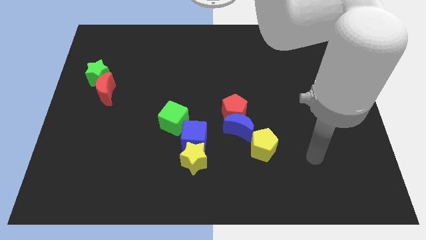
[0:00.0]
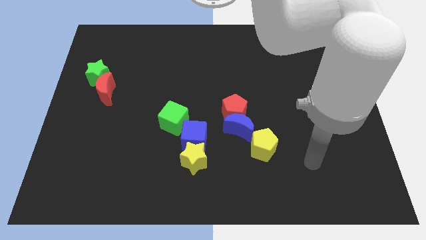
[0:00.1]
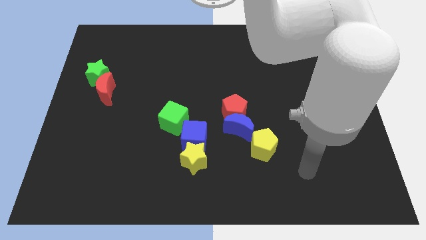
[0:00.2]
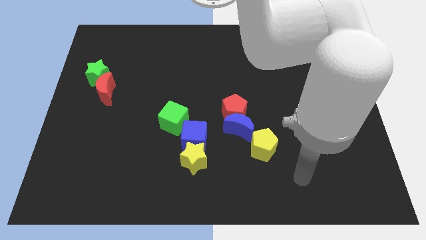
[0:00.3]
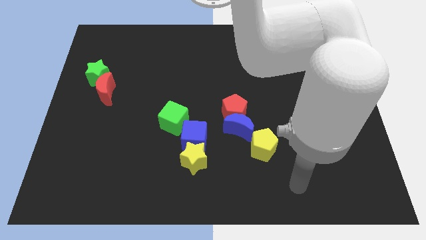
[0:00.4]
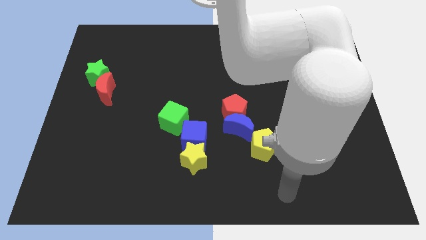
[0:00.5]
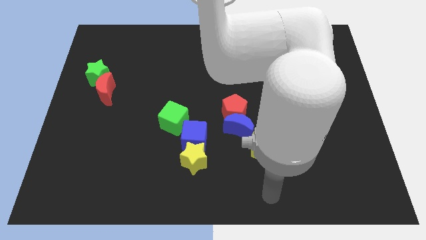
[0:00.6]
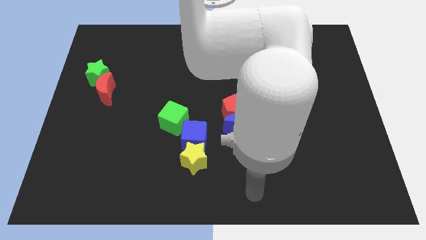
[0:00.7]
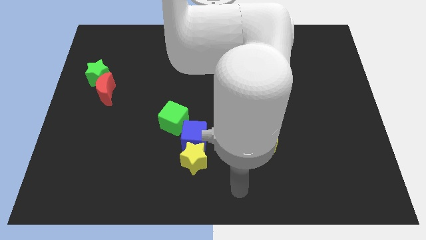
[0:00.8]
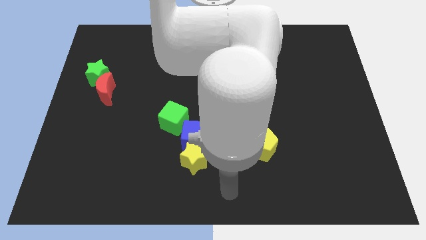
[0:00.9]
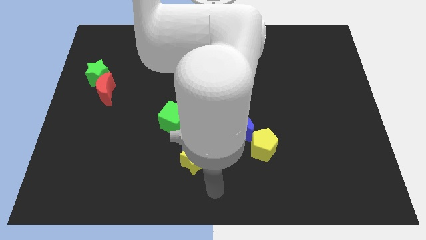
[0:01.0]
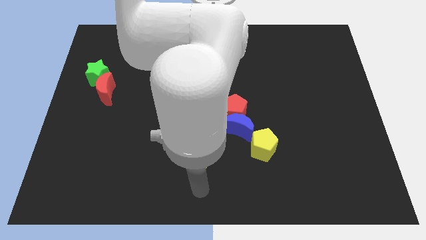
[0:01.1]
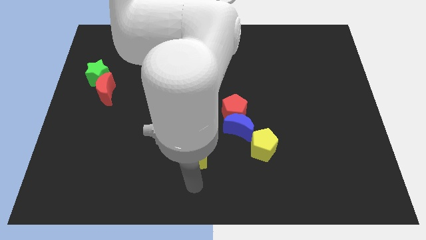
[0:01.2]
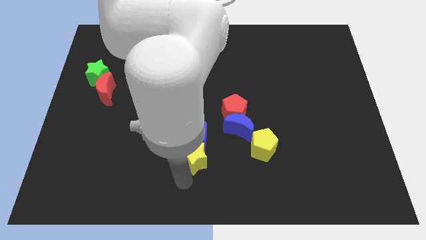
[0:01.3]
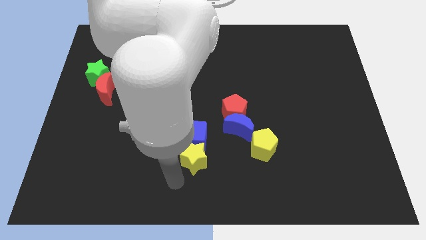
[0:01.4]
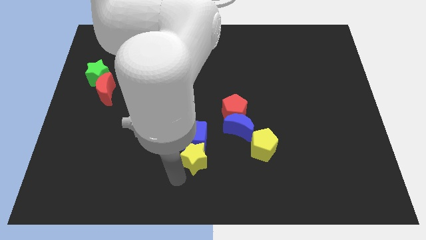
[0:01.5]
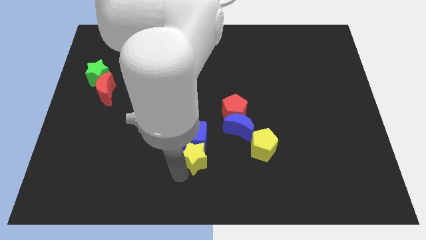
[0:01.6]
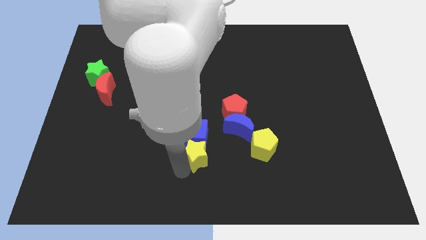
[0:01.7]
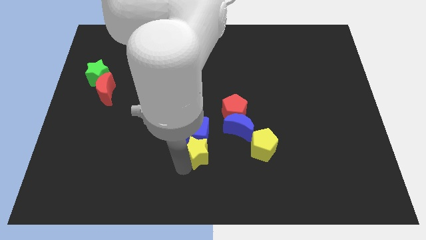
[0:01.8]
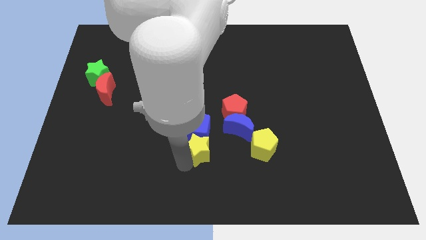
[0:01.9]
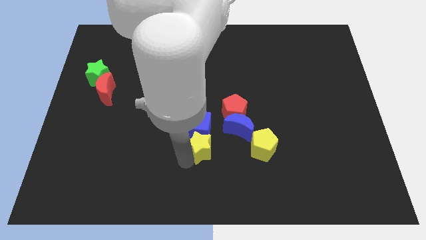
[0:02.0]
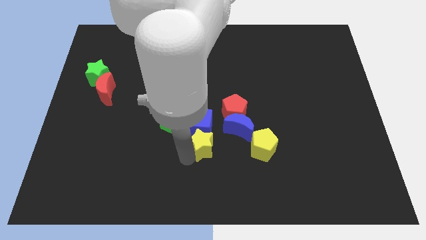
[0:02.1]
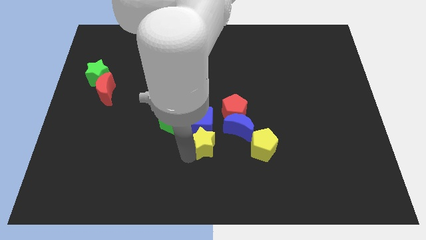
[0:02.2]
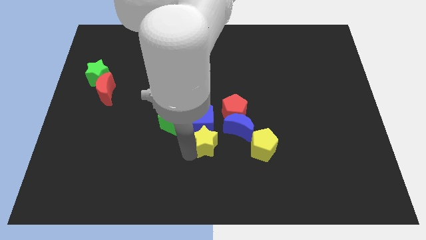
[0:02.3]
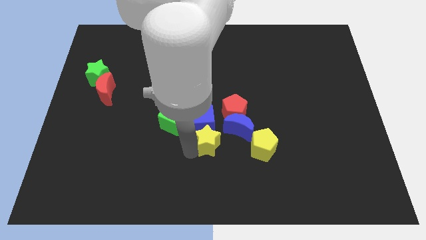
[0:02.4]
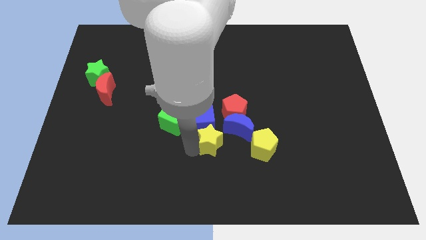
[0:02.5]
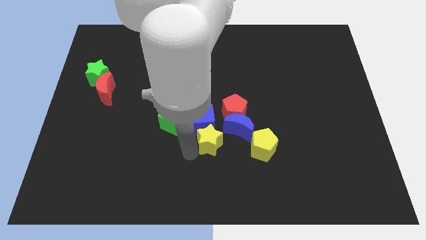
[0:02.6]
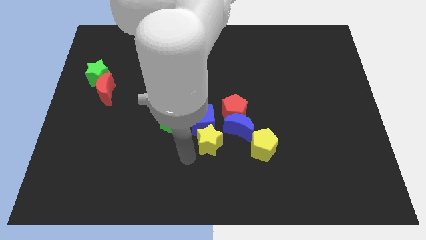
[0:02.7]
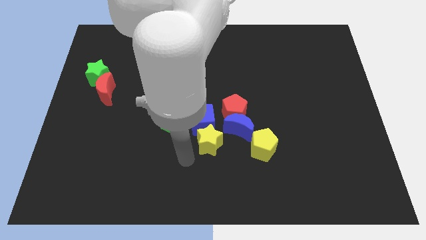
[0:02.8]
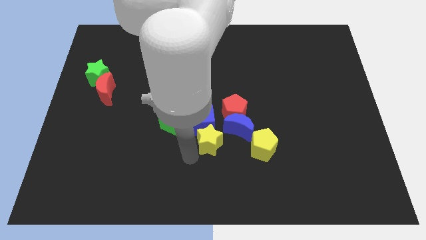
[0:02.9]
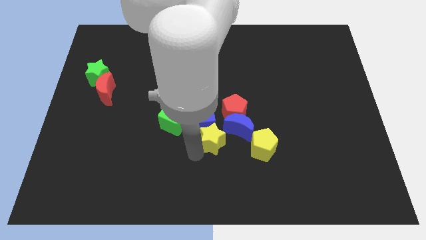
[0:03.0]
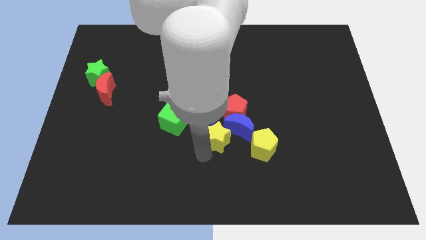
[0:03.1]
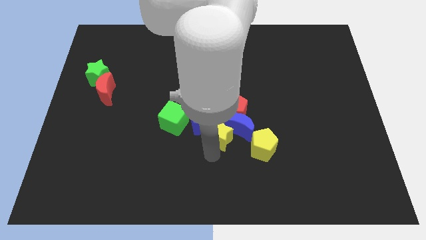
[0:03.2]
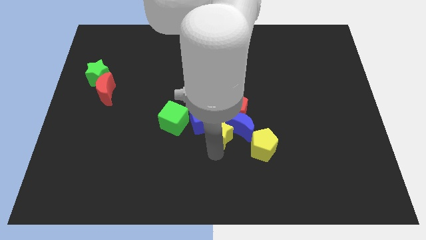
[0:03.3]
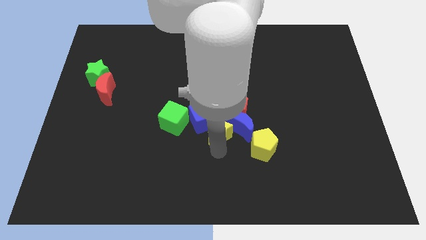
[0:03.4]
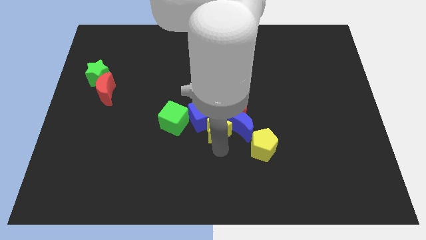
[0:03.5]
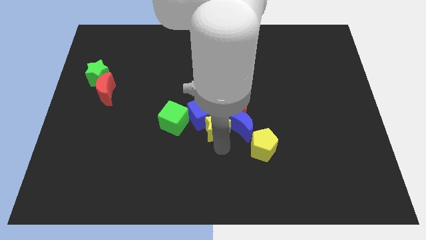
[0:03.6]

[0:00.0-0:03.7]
push the yellow star a little bit up

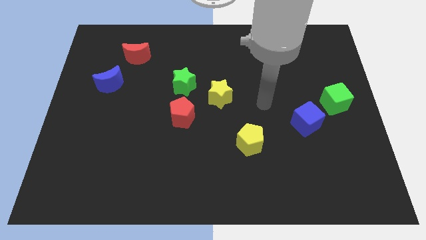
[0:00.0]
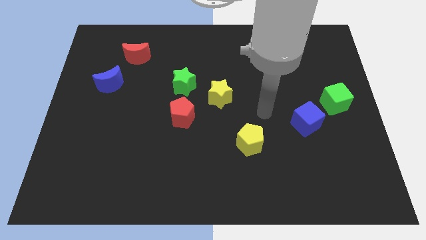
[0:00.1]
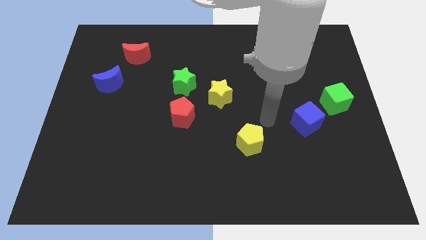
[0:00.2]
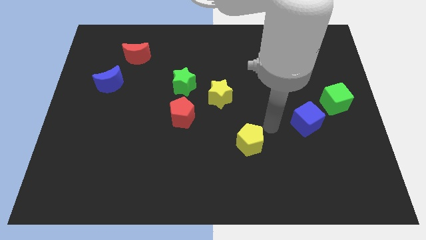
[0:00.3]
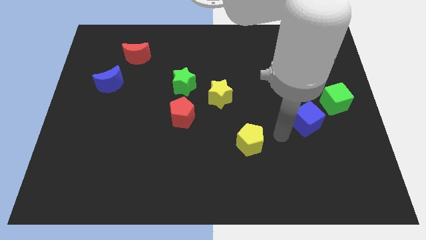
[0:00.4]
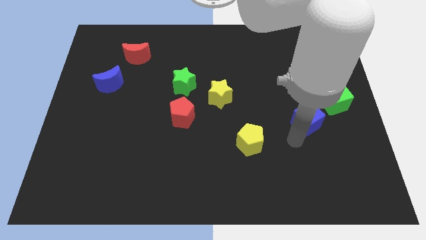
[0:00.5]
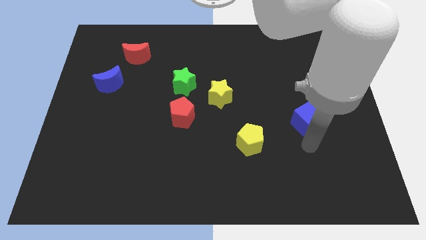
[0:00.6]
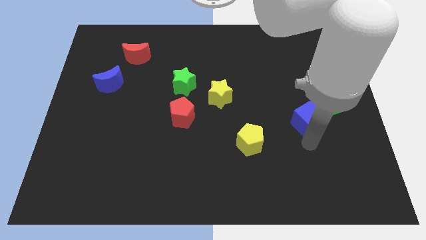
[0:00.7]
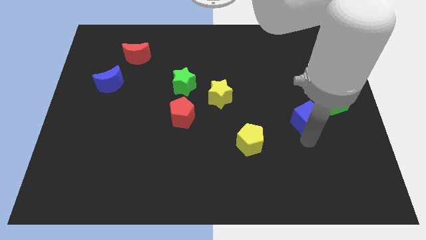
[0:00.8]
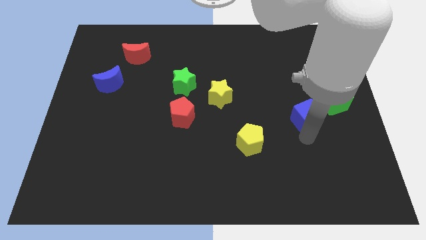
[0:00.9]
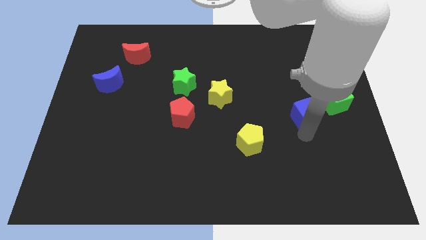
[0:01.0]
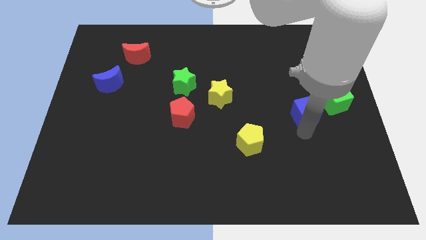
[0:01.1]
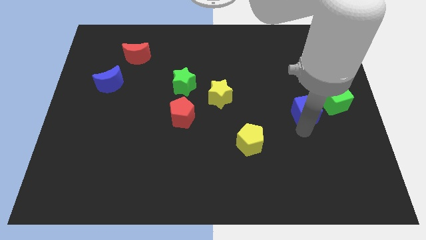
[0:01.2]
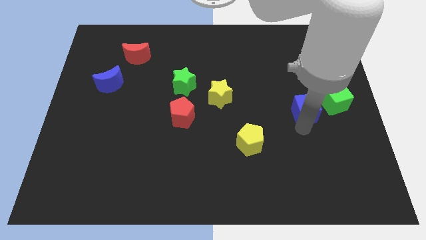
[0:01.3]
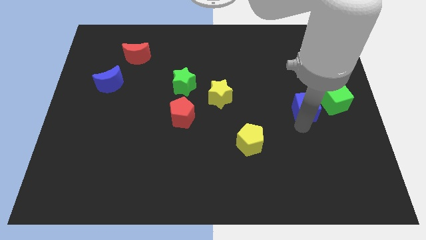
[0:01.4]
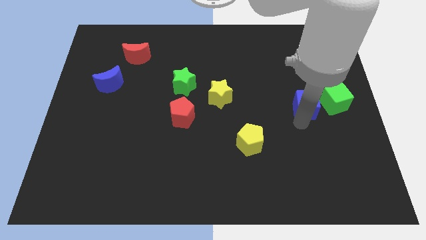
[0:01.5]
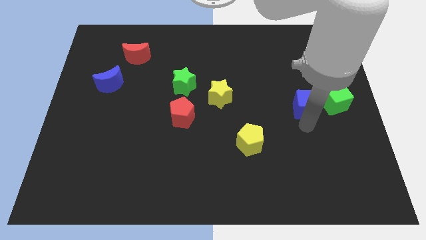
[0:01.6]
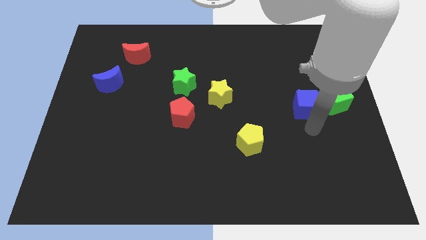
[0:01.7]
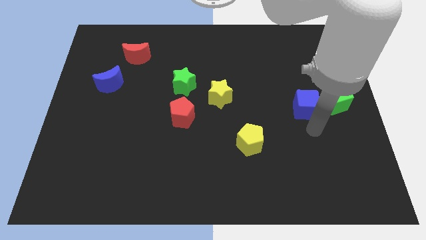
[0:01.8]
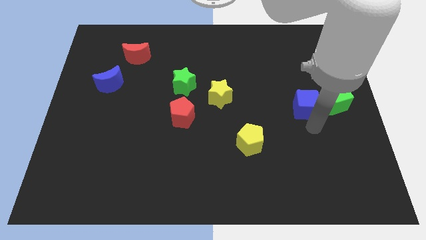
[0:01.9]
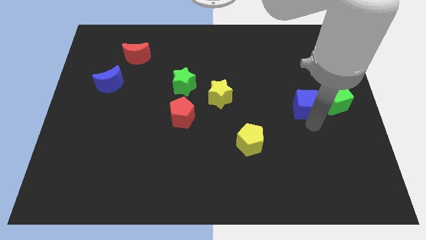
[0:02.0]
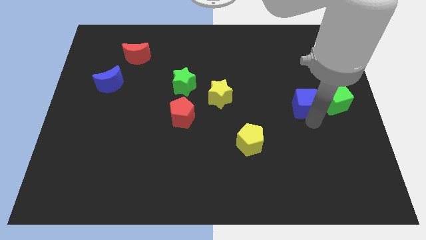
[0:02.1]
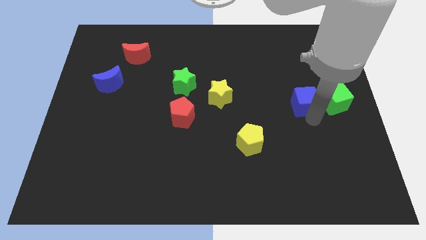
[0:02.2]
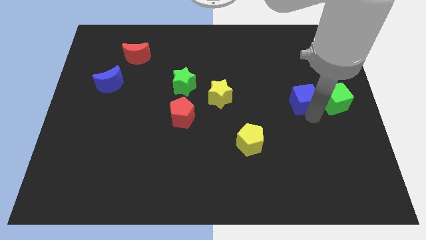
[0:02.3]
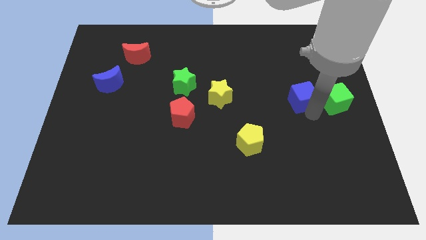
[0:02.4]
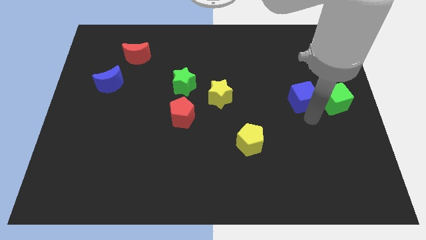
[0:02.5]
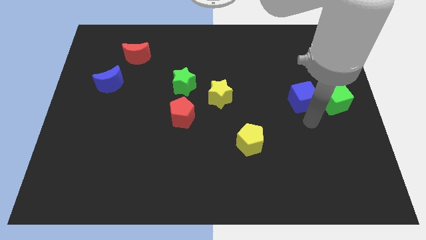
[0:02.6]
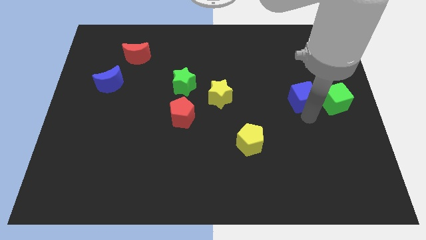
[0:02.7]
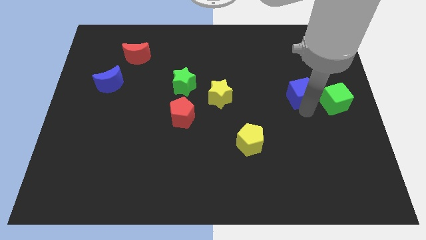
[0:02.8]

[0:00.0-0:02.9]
slide the blue cube a little bit up

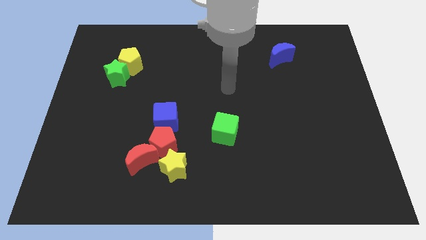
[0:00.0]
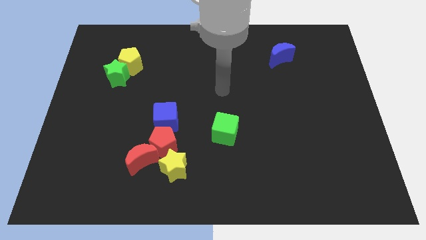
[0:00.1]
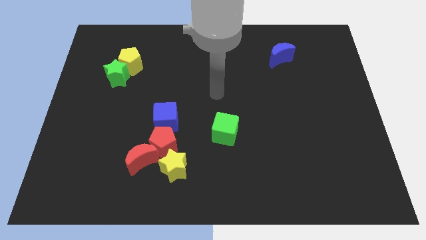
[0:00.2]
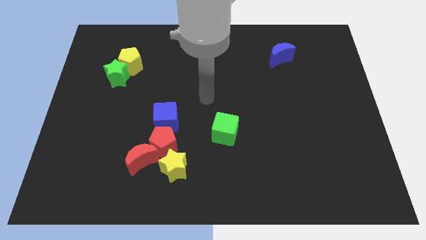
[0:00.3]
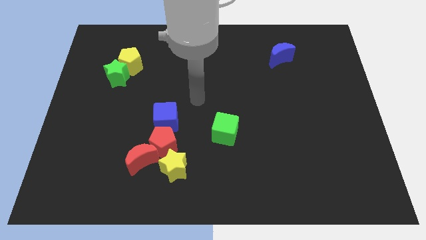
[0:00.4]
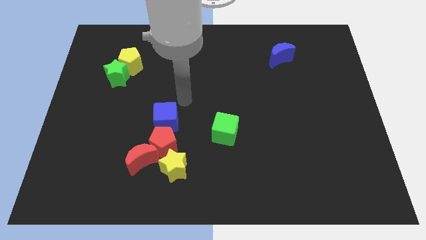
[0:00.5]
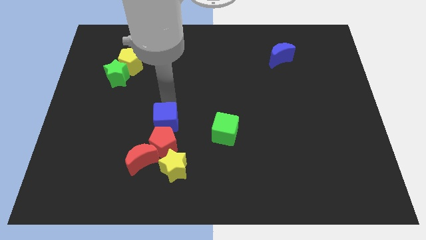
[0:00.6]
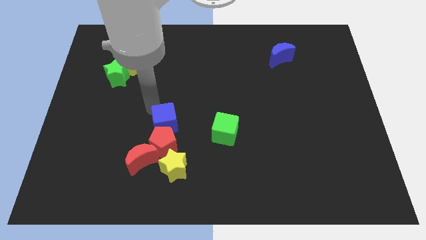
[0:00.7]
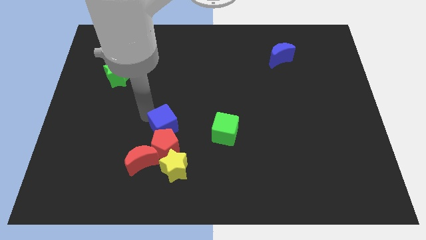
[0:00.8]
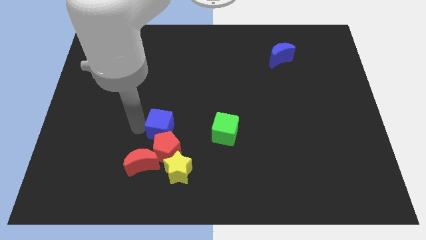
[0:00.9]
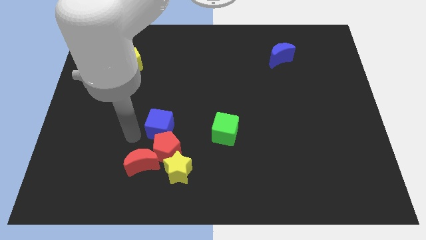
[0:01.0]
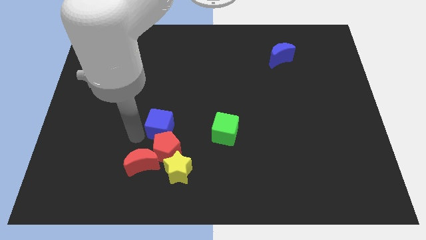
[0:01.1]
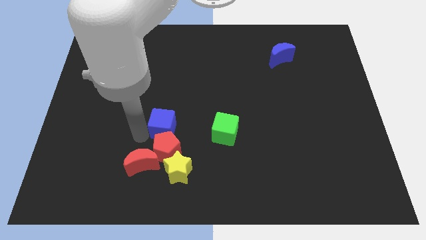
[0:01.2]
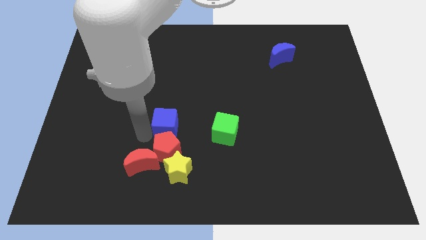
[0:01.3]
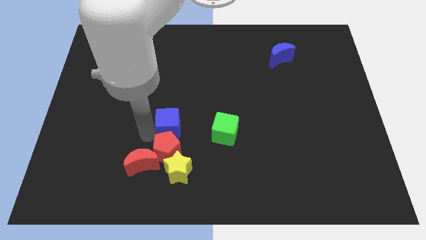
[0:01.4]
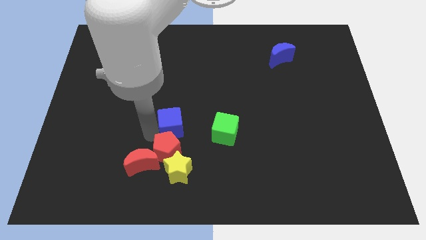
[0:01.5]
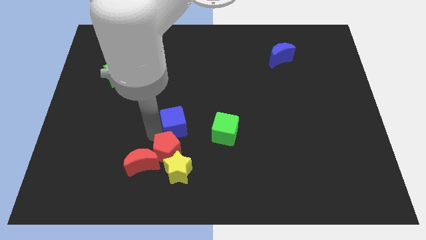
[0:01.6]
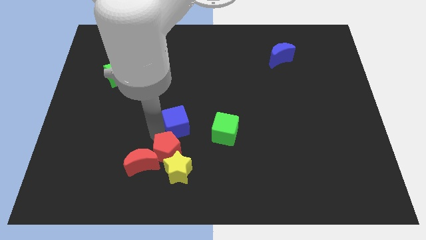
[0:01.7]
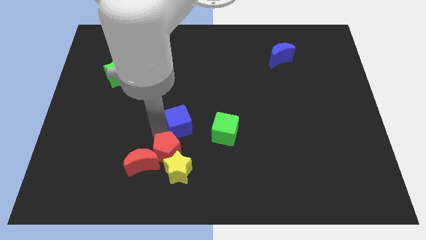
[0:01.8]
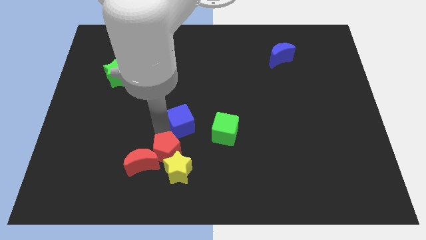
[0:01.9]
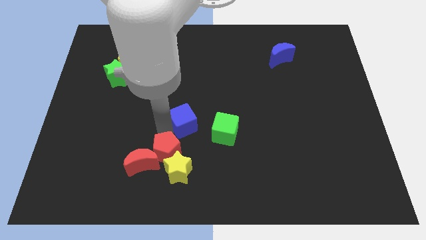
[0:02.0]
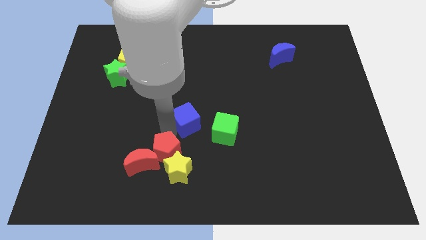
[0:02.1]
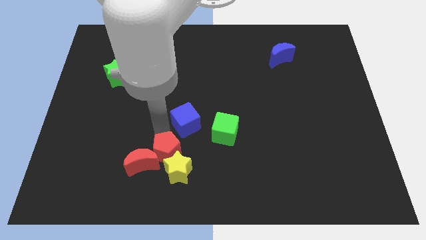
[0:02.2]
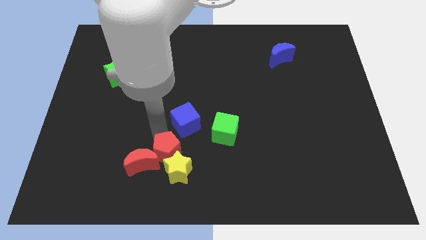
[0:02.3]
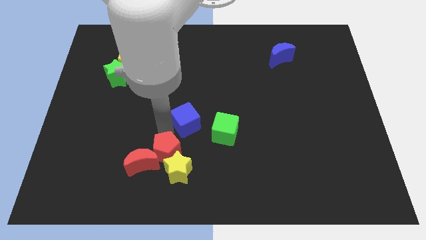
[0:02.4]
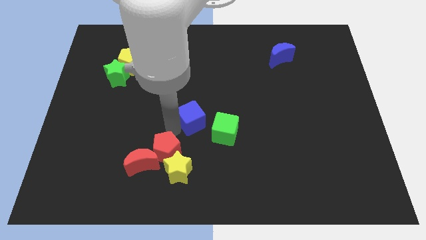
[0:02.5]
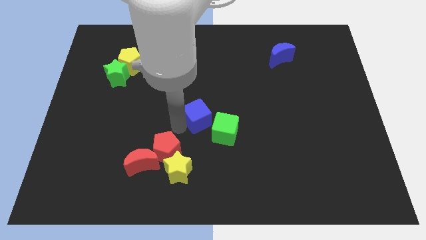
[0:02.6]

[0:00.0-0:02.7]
push the blue cube right a little
